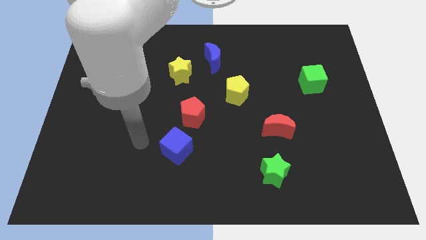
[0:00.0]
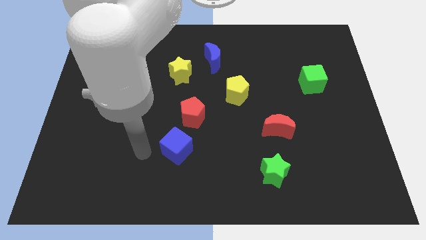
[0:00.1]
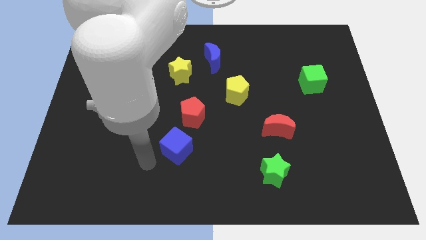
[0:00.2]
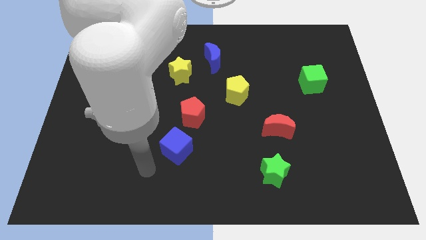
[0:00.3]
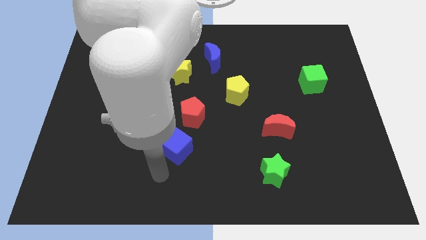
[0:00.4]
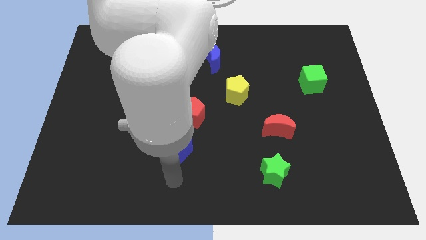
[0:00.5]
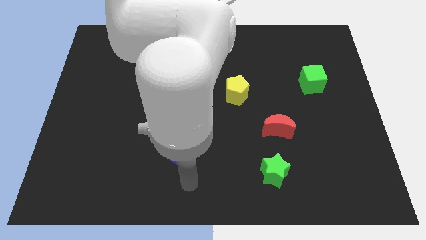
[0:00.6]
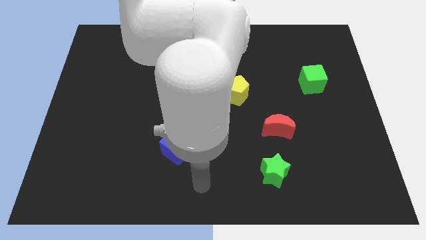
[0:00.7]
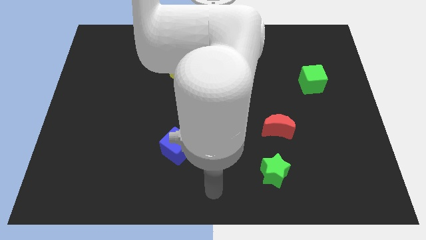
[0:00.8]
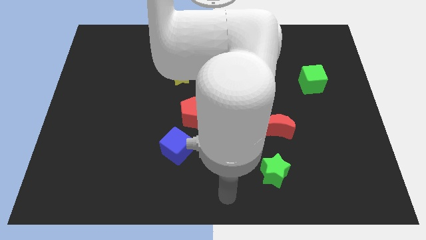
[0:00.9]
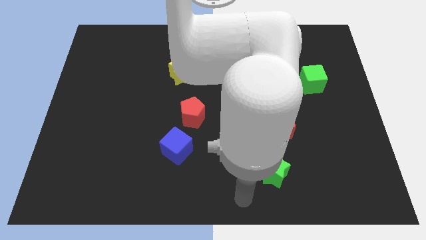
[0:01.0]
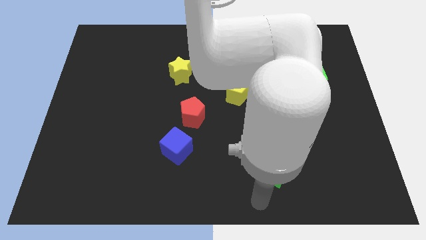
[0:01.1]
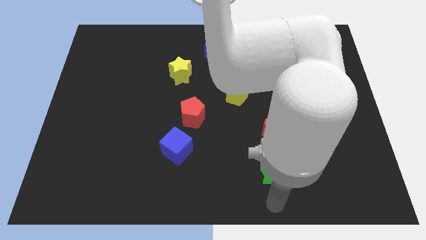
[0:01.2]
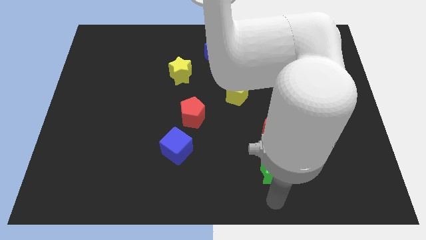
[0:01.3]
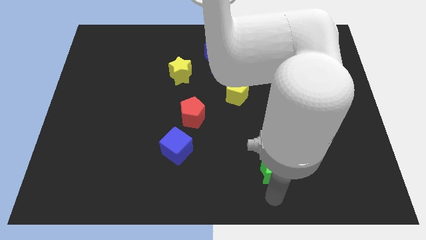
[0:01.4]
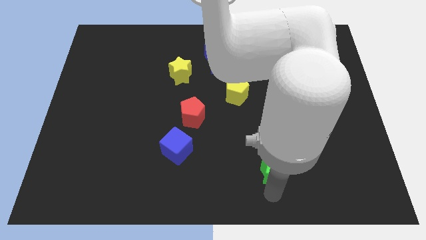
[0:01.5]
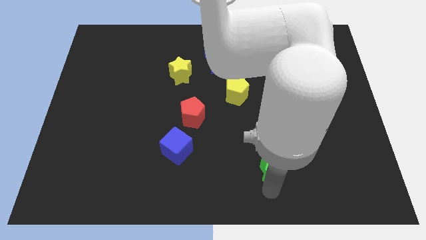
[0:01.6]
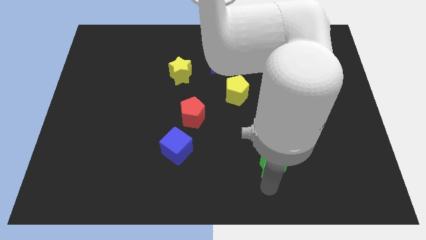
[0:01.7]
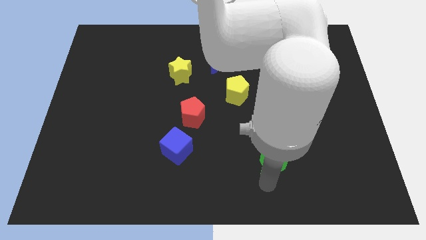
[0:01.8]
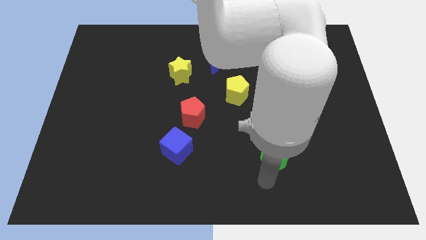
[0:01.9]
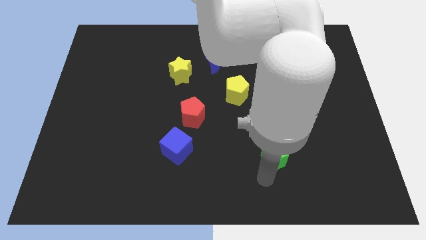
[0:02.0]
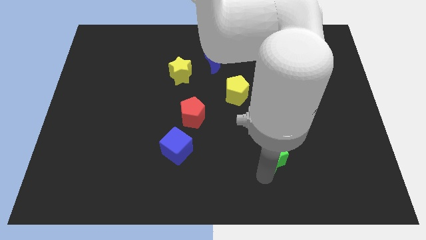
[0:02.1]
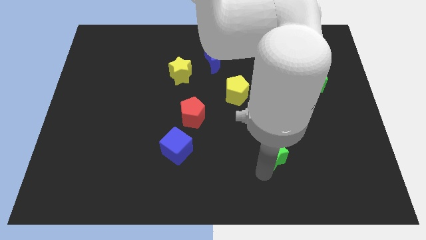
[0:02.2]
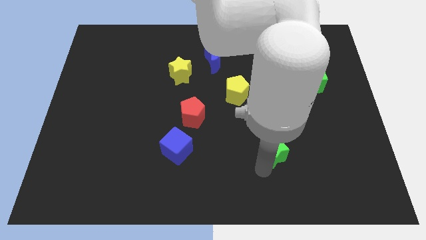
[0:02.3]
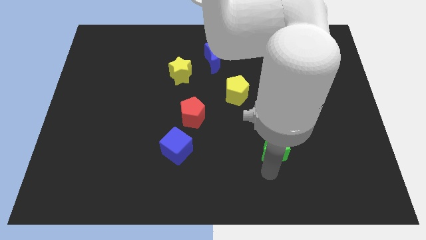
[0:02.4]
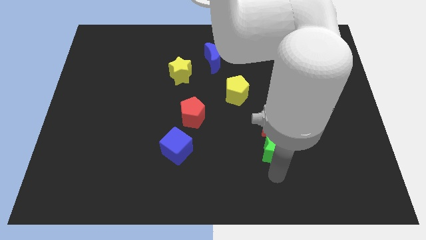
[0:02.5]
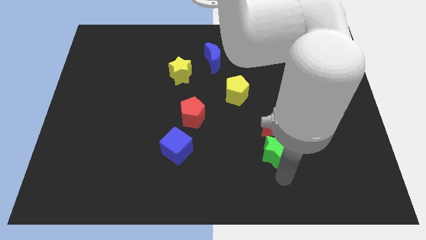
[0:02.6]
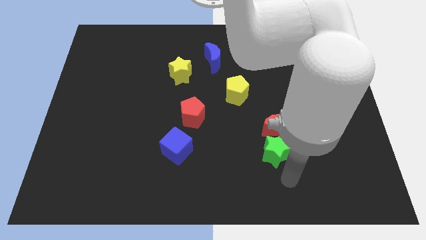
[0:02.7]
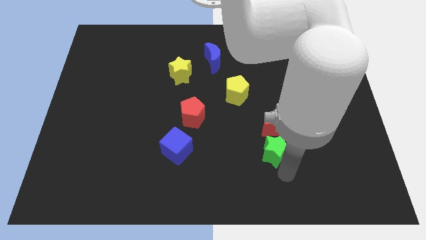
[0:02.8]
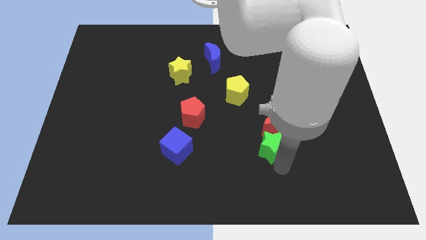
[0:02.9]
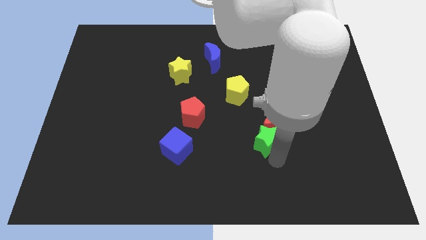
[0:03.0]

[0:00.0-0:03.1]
push the green star slightly upwards

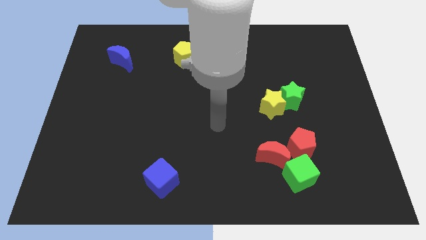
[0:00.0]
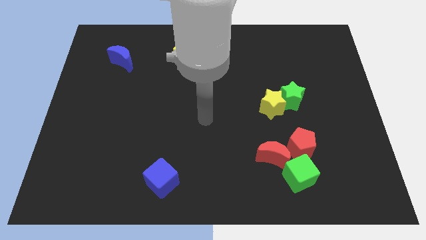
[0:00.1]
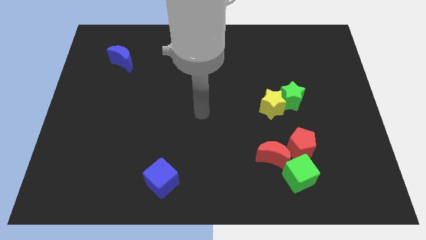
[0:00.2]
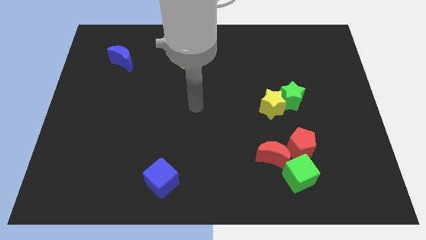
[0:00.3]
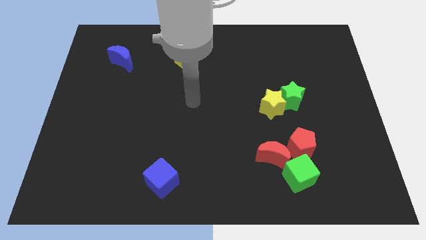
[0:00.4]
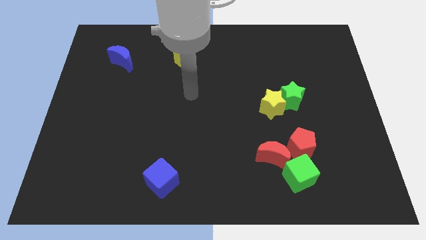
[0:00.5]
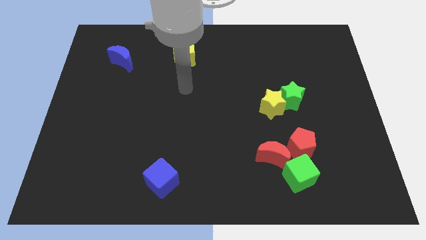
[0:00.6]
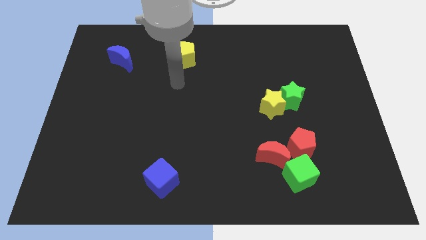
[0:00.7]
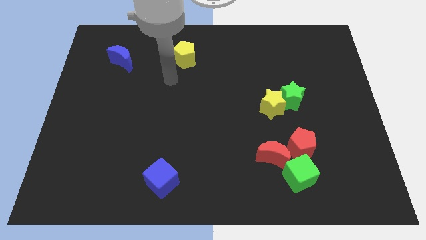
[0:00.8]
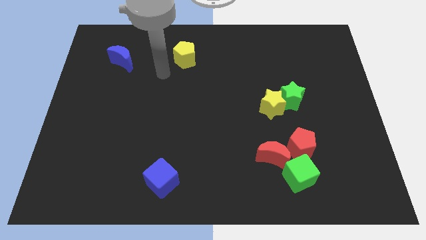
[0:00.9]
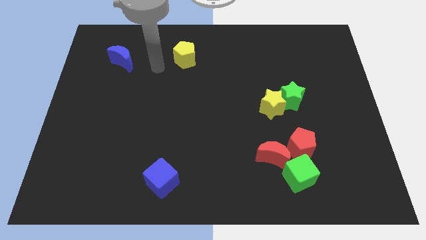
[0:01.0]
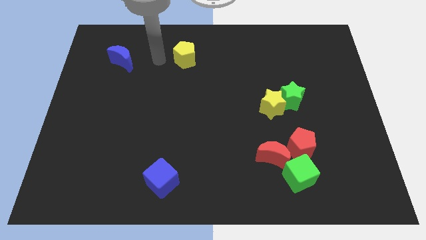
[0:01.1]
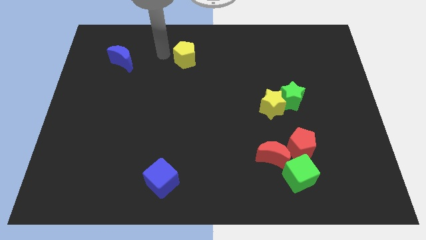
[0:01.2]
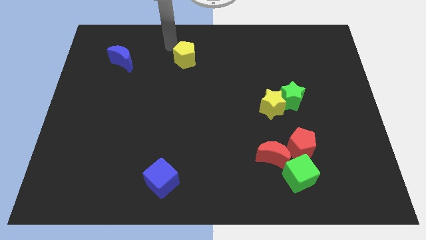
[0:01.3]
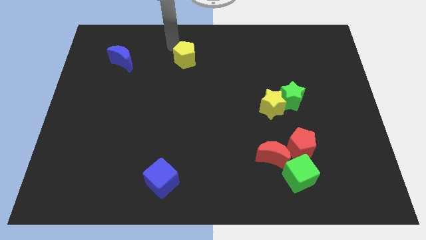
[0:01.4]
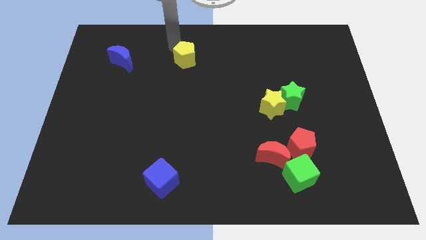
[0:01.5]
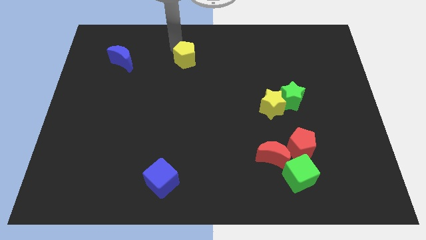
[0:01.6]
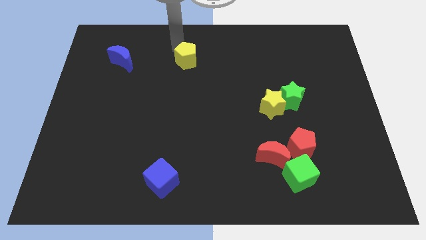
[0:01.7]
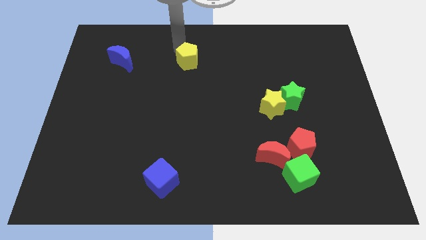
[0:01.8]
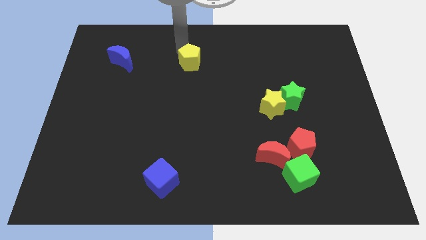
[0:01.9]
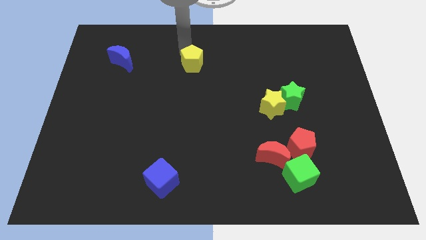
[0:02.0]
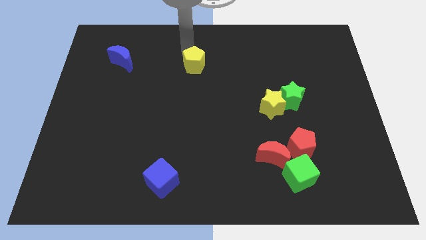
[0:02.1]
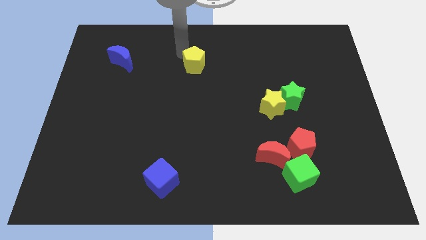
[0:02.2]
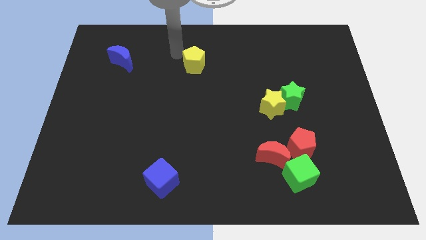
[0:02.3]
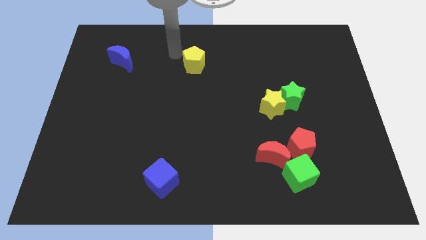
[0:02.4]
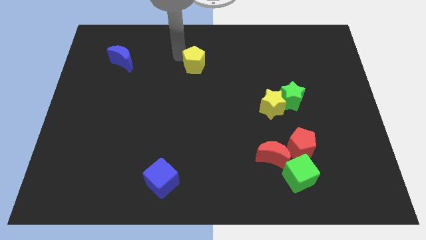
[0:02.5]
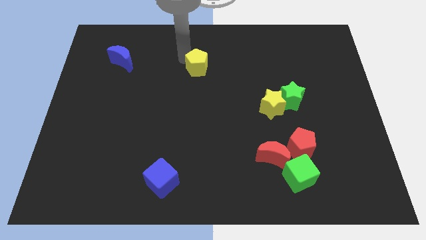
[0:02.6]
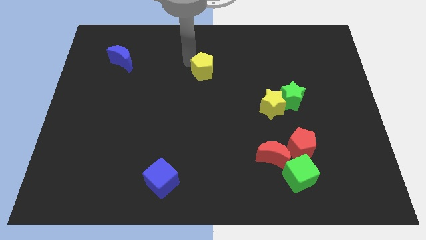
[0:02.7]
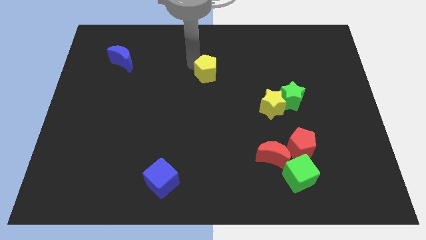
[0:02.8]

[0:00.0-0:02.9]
slide the yellow pentagon a bit downwards and right

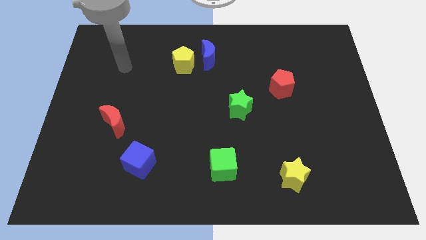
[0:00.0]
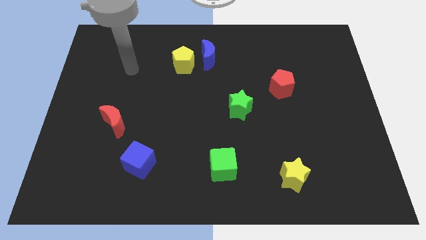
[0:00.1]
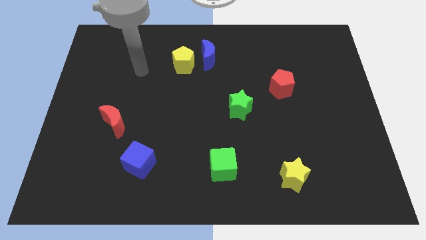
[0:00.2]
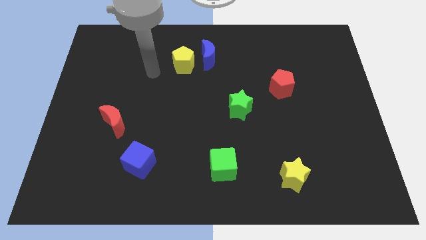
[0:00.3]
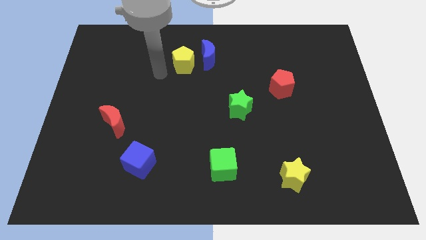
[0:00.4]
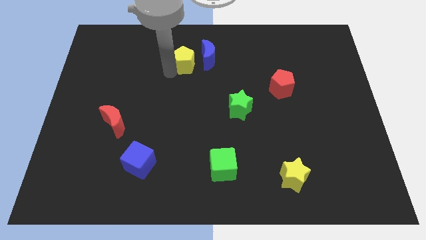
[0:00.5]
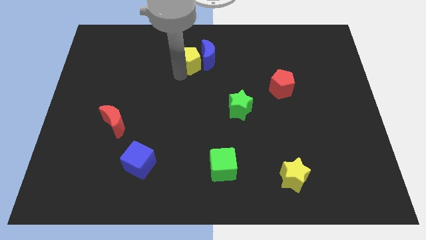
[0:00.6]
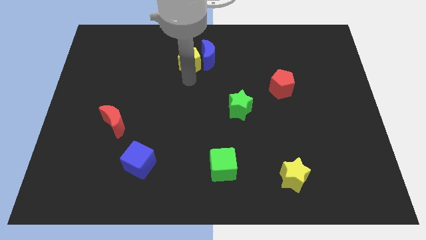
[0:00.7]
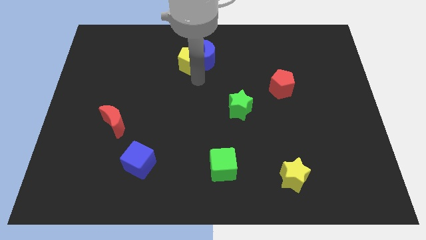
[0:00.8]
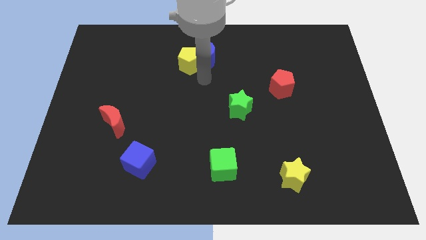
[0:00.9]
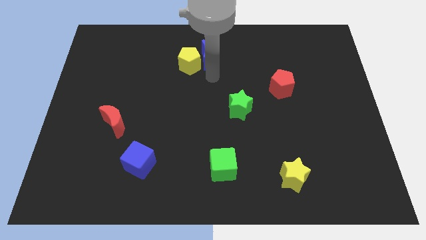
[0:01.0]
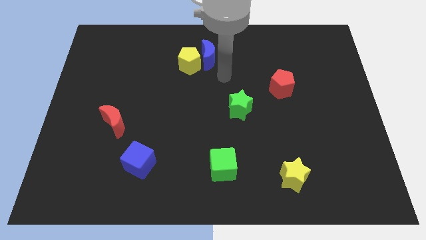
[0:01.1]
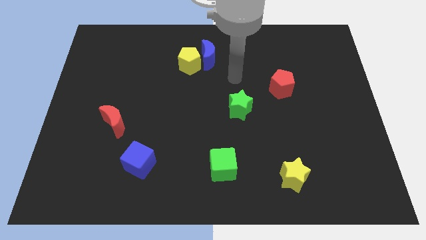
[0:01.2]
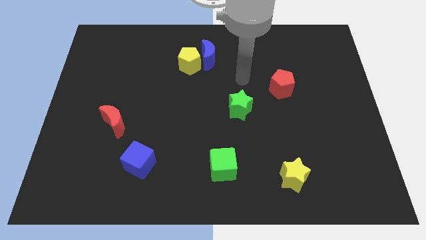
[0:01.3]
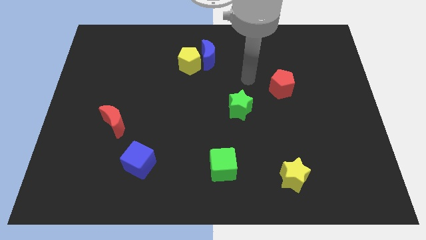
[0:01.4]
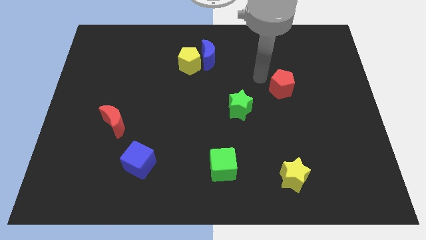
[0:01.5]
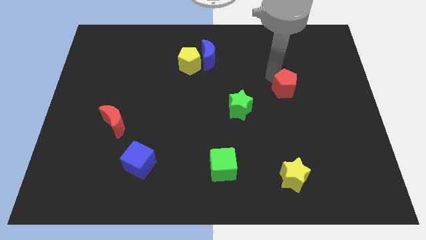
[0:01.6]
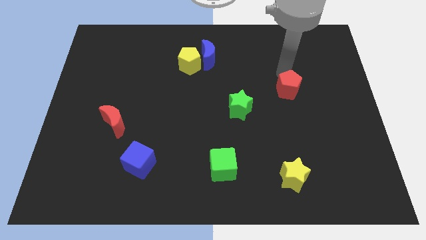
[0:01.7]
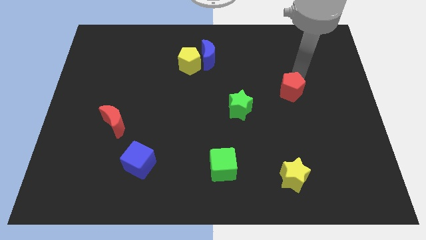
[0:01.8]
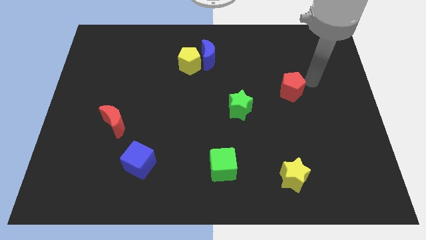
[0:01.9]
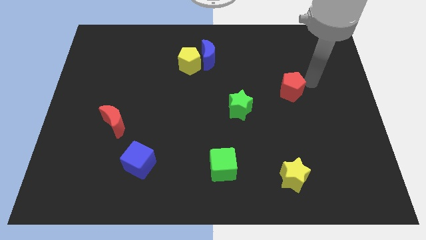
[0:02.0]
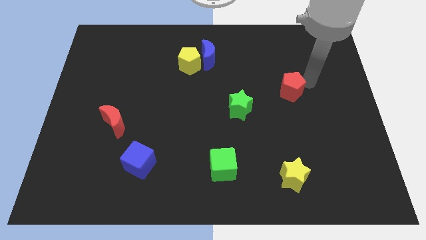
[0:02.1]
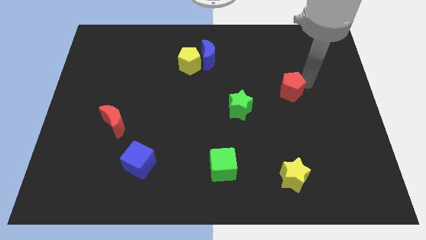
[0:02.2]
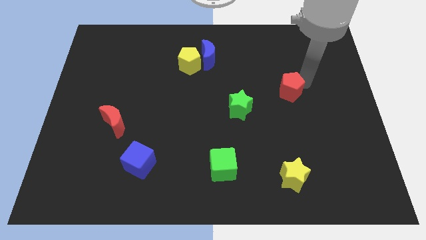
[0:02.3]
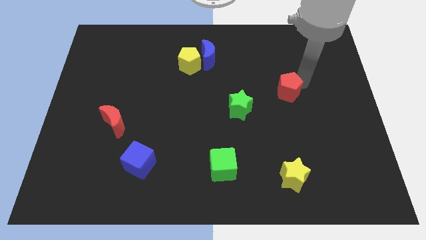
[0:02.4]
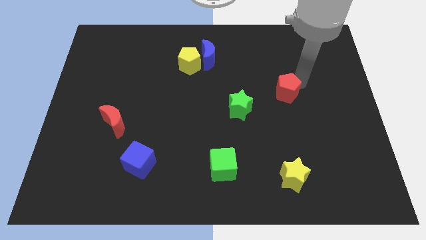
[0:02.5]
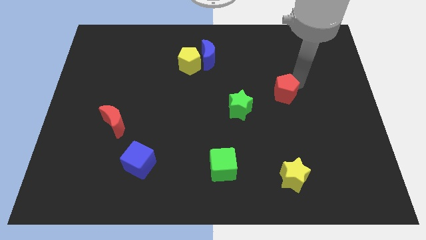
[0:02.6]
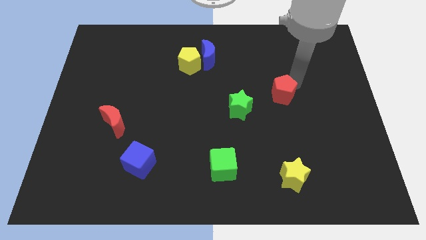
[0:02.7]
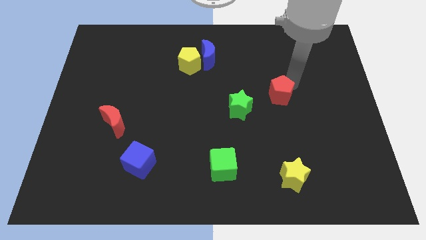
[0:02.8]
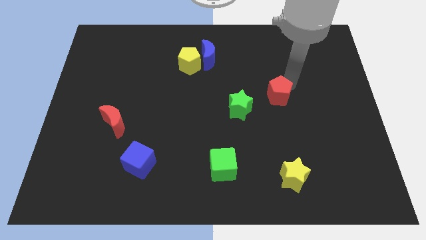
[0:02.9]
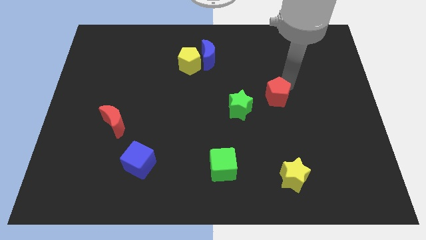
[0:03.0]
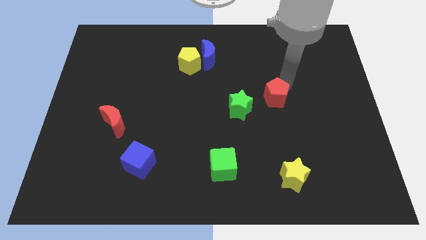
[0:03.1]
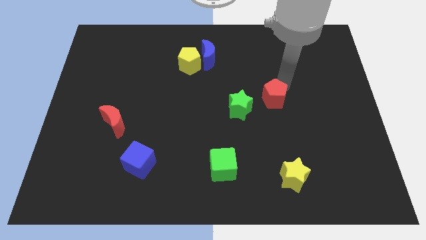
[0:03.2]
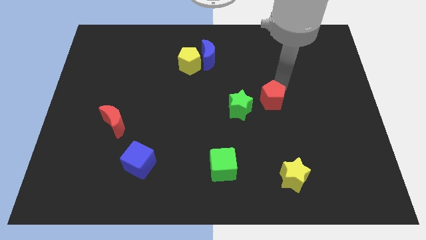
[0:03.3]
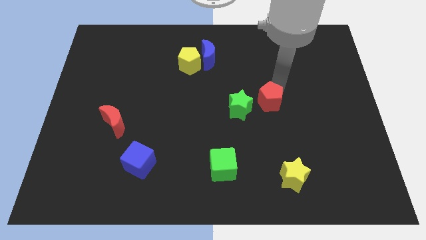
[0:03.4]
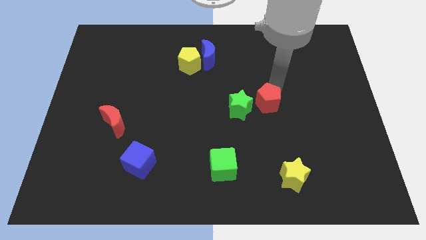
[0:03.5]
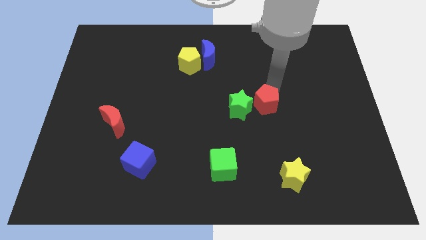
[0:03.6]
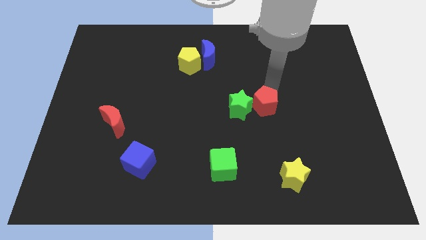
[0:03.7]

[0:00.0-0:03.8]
slightly slide the red pentagon downwards and then left
